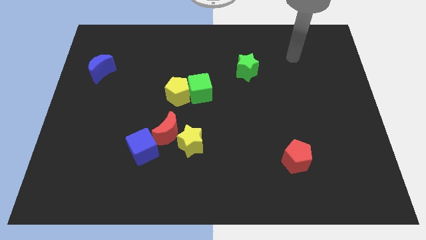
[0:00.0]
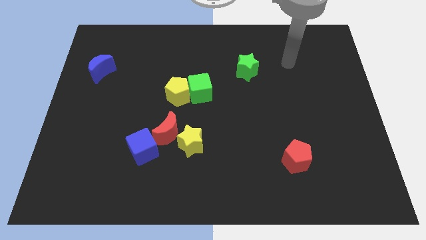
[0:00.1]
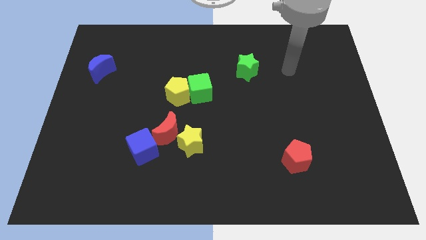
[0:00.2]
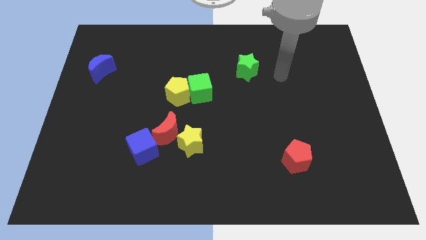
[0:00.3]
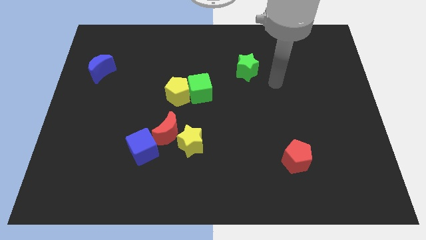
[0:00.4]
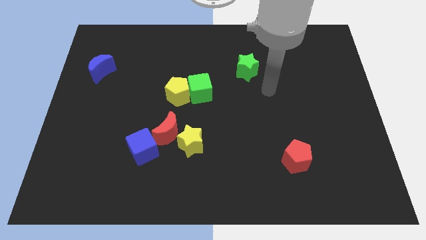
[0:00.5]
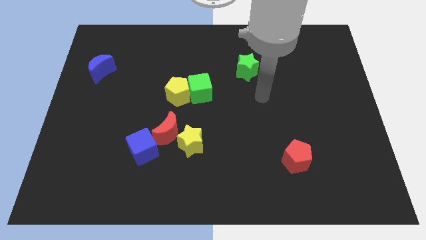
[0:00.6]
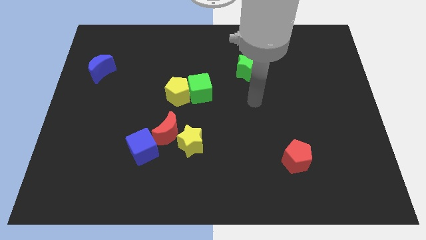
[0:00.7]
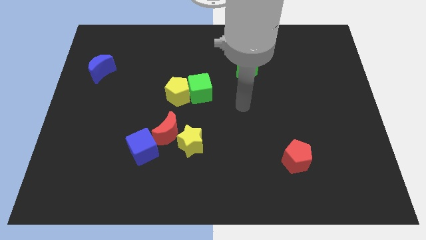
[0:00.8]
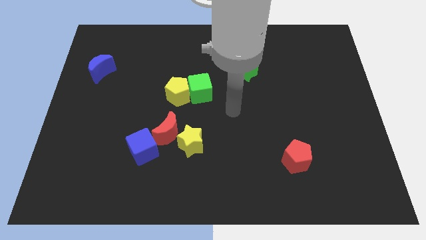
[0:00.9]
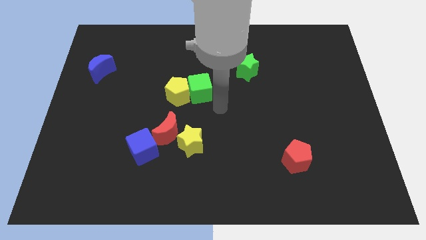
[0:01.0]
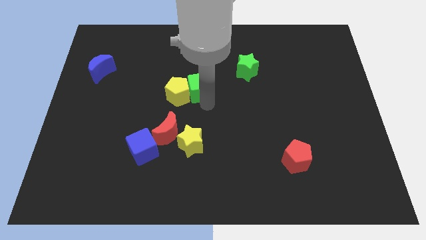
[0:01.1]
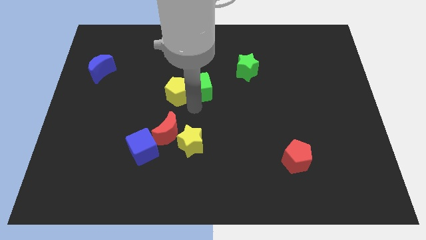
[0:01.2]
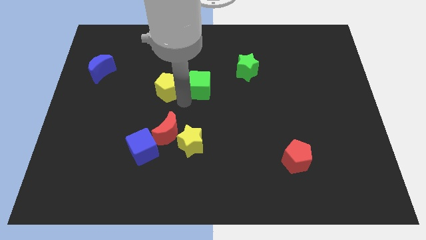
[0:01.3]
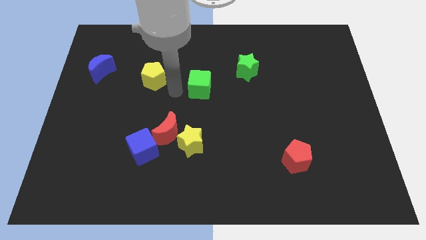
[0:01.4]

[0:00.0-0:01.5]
pull the green cube apart from the yellow pentagon

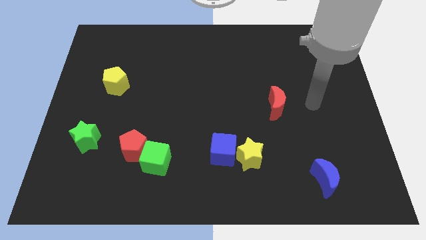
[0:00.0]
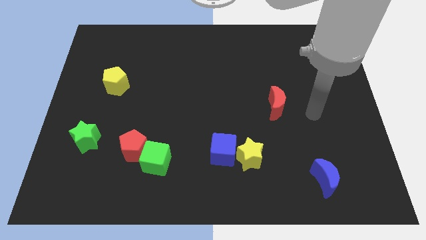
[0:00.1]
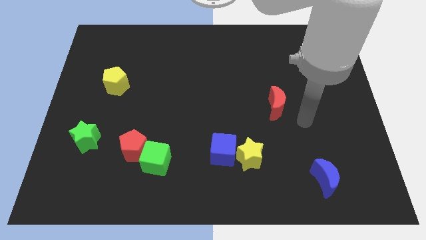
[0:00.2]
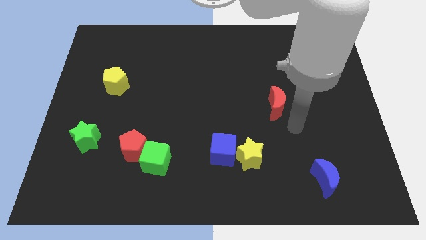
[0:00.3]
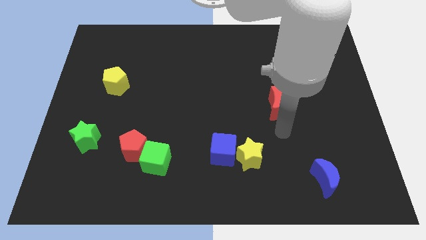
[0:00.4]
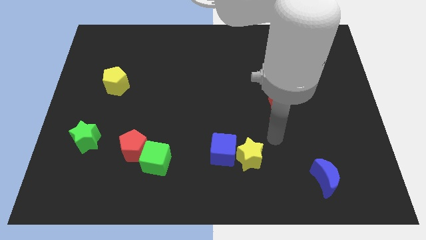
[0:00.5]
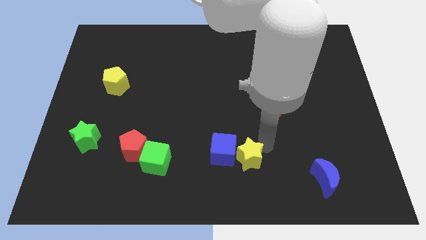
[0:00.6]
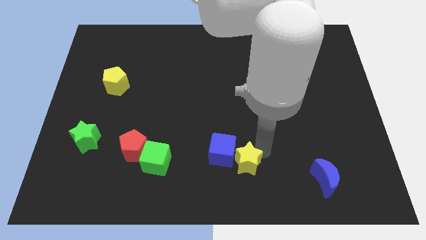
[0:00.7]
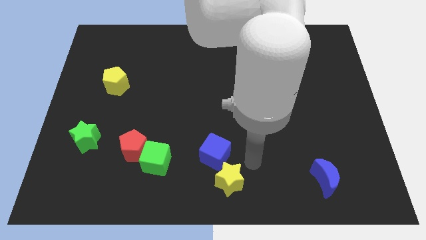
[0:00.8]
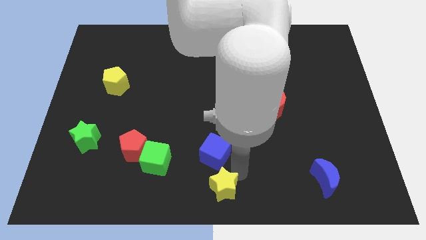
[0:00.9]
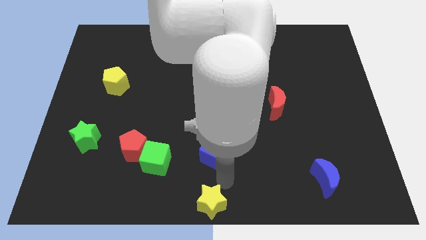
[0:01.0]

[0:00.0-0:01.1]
move the blue cube away from the yellow star

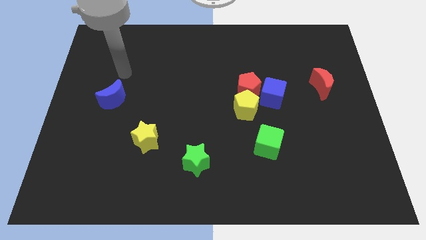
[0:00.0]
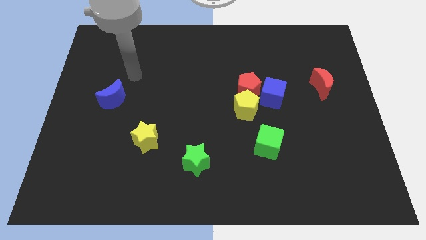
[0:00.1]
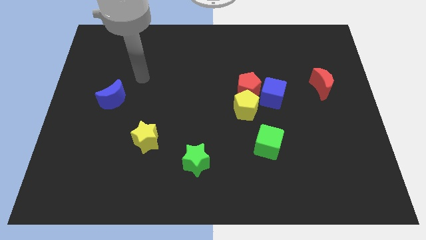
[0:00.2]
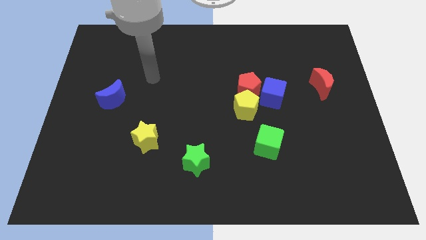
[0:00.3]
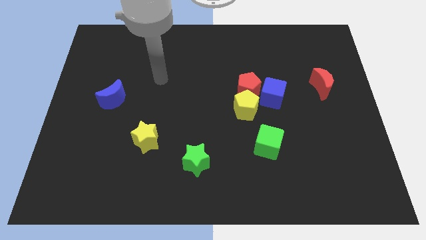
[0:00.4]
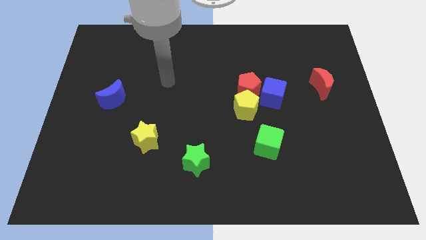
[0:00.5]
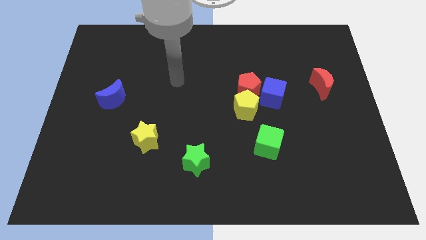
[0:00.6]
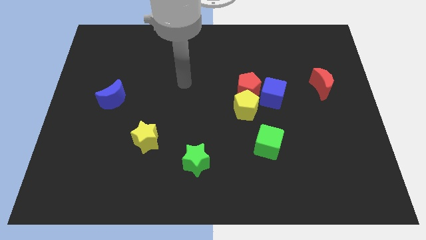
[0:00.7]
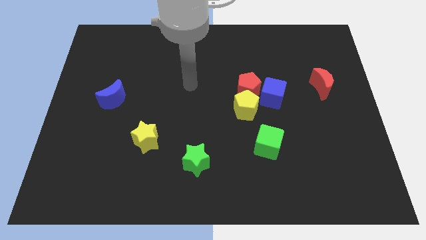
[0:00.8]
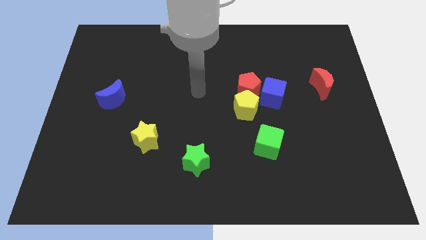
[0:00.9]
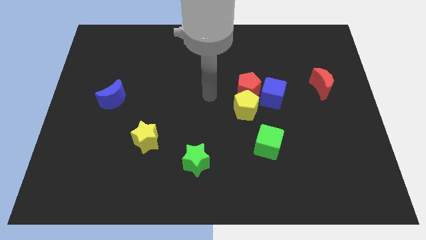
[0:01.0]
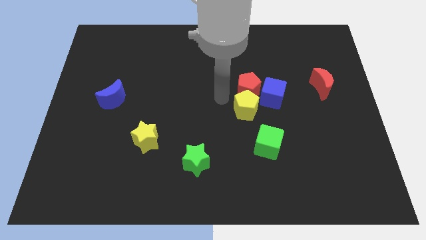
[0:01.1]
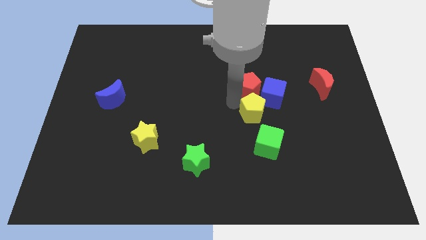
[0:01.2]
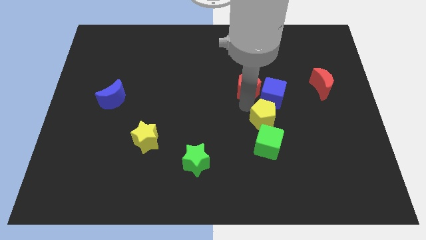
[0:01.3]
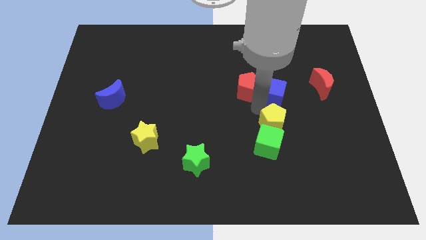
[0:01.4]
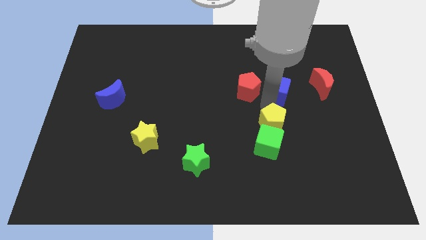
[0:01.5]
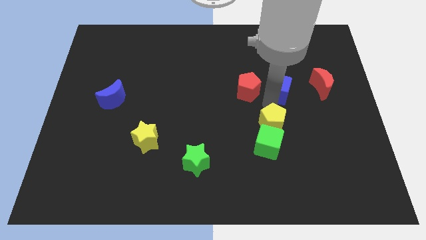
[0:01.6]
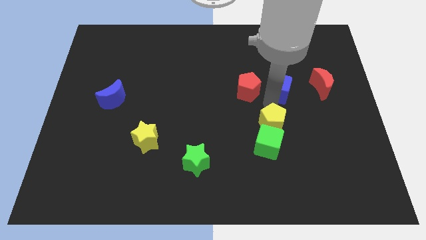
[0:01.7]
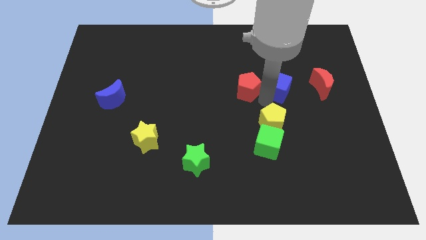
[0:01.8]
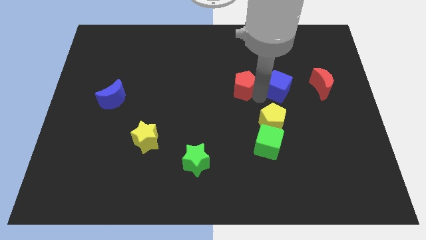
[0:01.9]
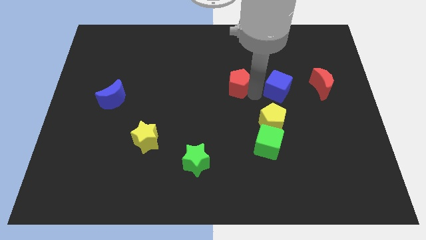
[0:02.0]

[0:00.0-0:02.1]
pull the red pentagon apart from the yellow pentagon and blue cube

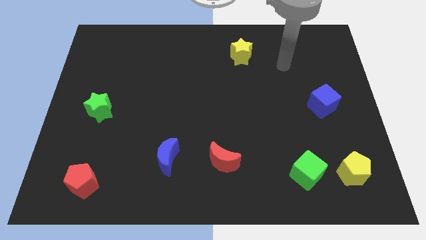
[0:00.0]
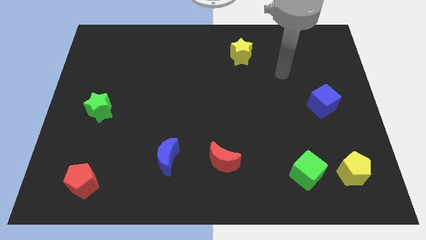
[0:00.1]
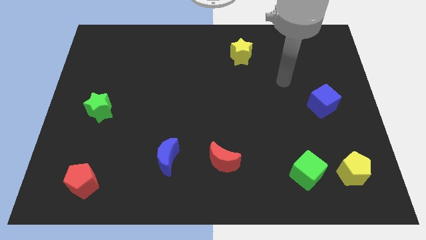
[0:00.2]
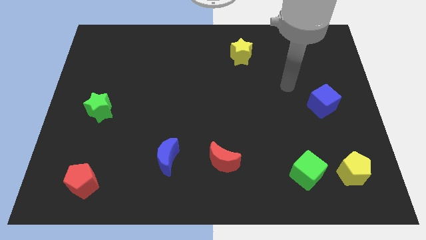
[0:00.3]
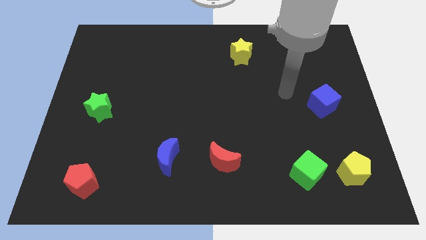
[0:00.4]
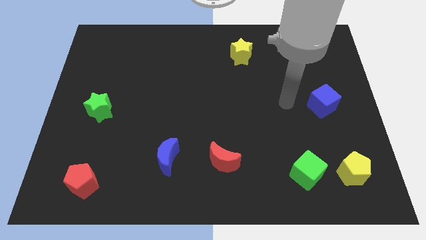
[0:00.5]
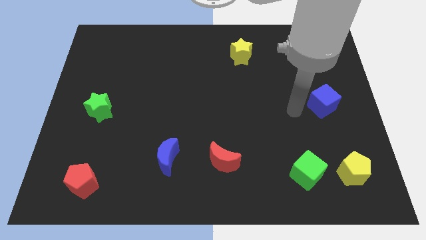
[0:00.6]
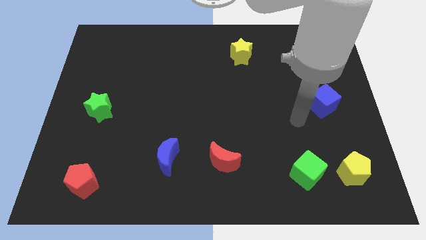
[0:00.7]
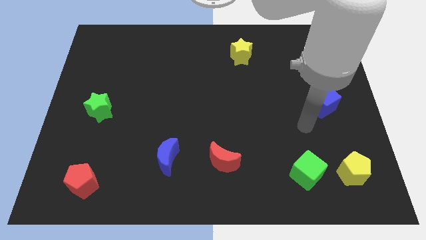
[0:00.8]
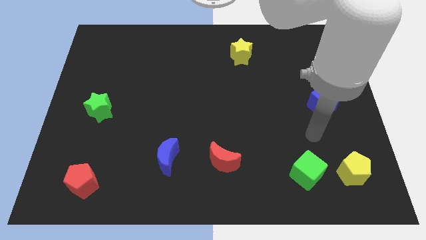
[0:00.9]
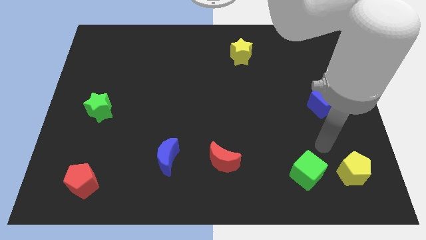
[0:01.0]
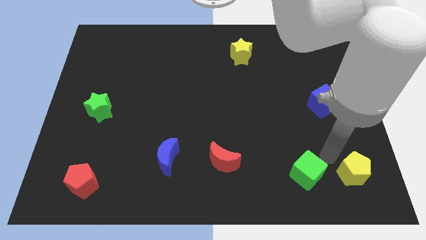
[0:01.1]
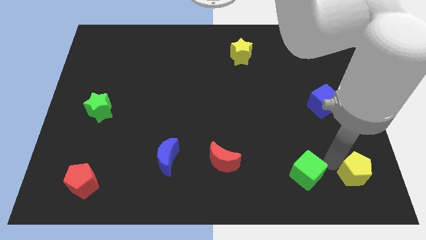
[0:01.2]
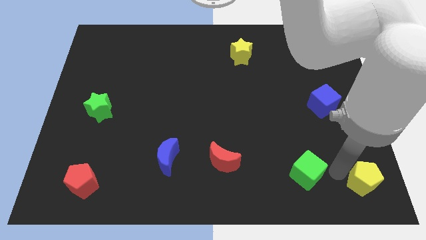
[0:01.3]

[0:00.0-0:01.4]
move the green cube away from the yellow pentagon

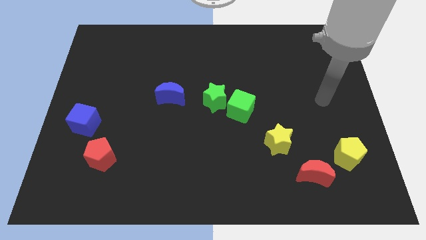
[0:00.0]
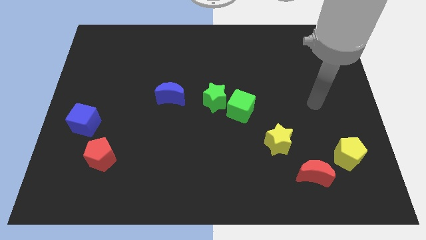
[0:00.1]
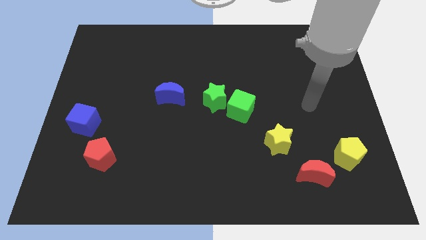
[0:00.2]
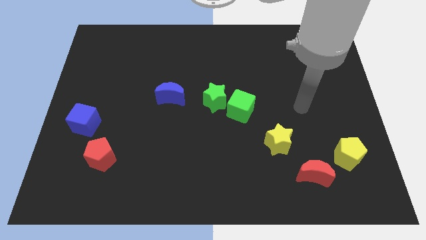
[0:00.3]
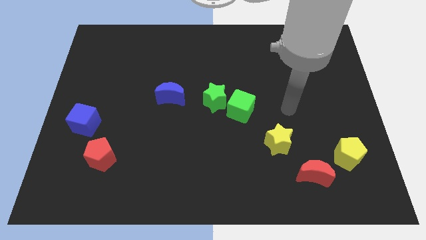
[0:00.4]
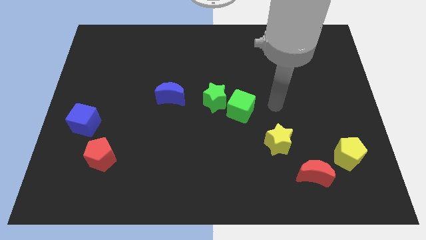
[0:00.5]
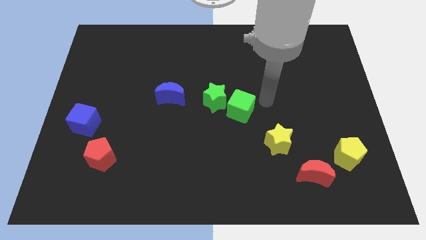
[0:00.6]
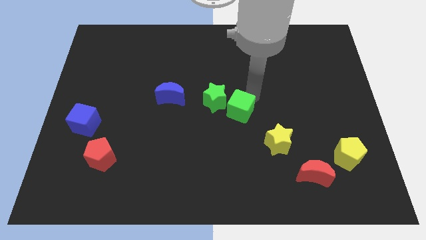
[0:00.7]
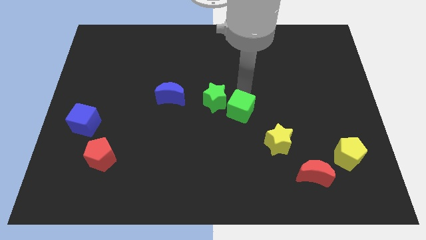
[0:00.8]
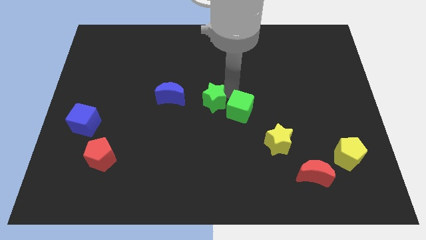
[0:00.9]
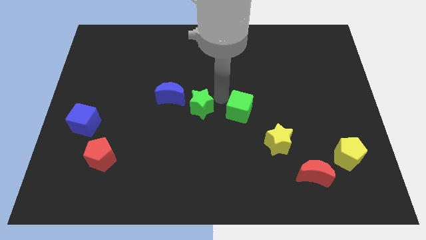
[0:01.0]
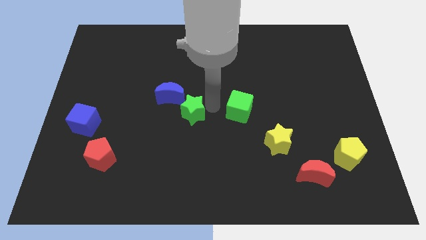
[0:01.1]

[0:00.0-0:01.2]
move the green cube away from the green star

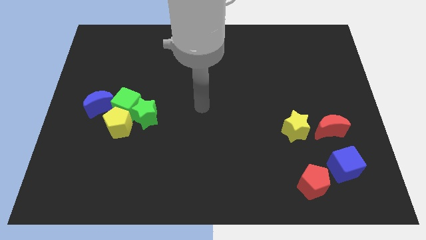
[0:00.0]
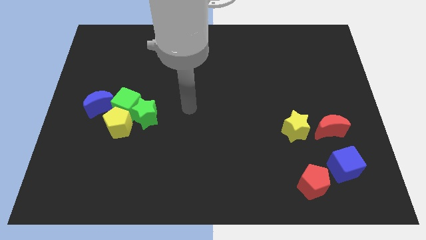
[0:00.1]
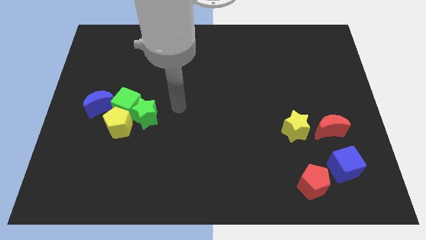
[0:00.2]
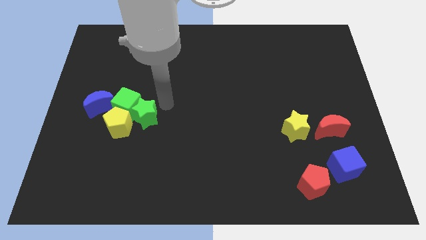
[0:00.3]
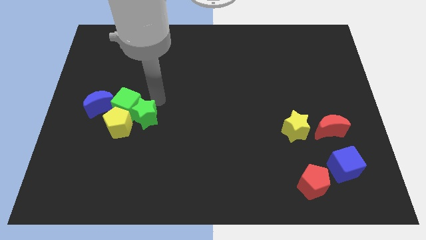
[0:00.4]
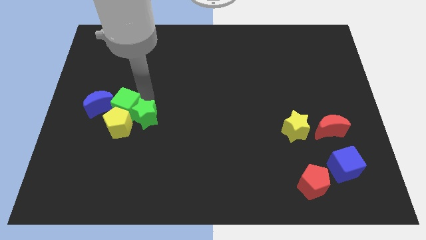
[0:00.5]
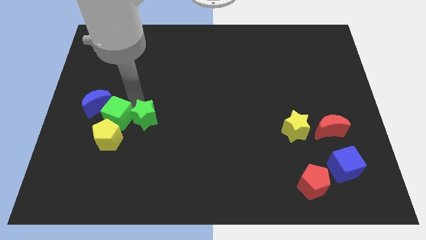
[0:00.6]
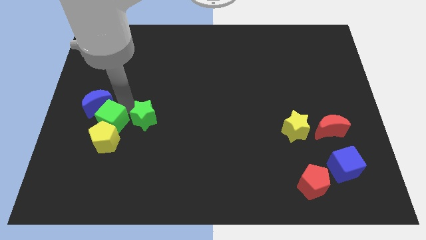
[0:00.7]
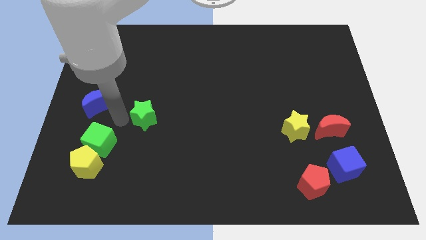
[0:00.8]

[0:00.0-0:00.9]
pull the green star apart from the green cube and yellow pentagon

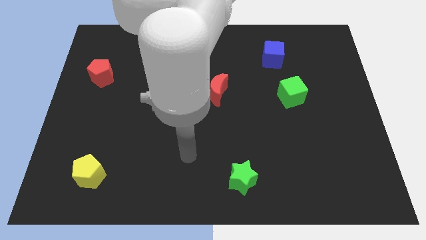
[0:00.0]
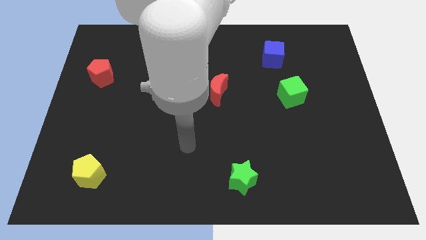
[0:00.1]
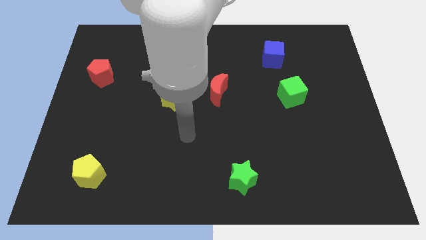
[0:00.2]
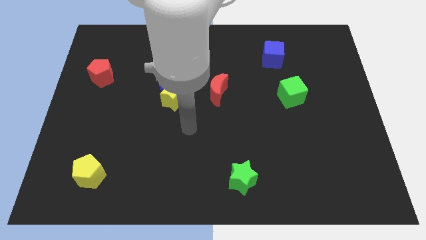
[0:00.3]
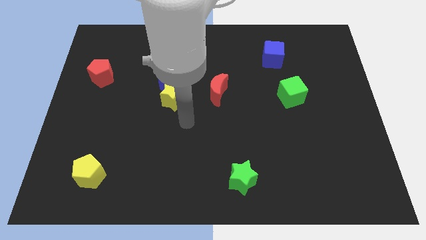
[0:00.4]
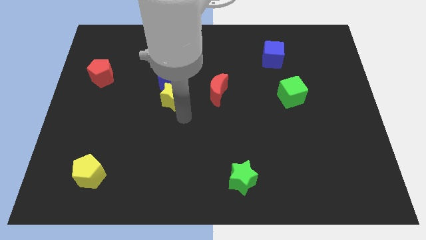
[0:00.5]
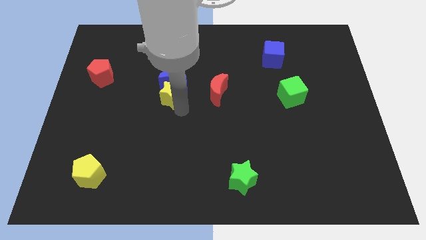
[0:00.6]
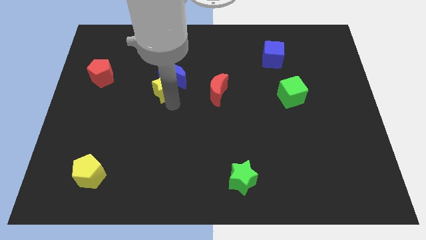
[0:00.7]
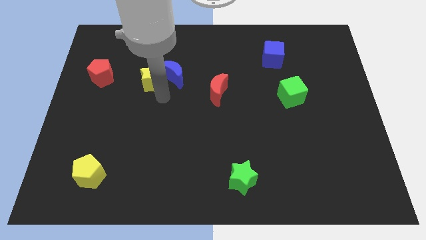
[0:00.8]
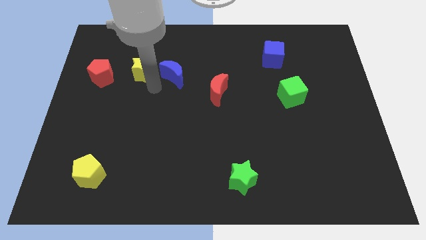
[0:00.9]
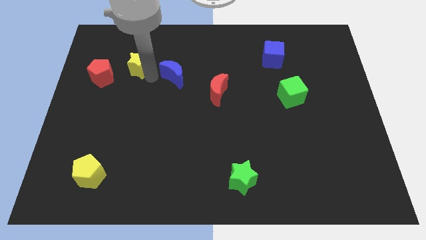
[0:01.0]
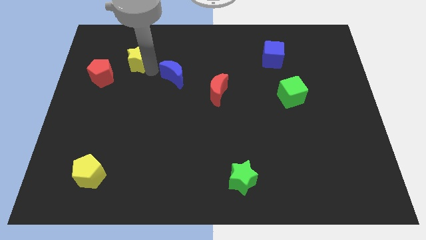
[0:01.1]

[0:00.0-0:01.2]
separate the blue moon from the yellow star
